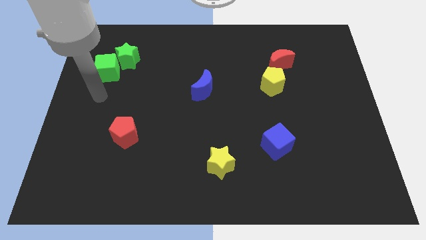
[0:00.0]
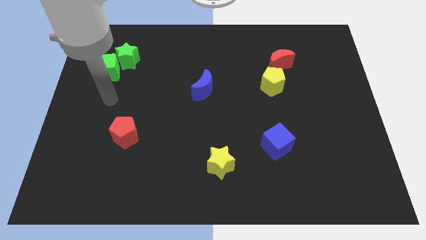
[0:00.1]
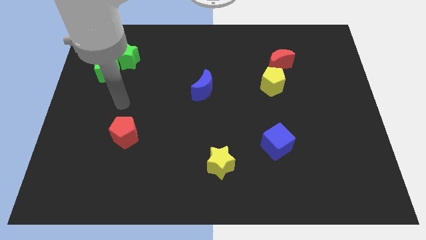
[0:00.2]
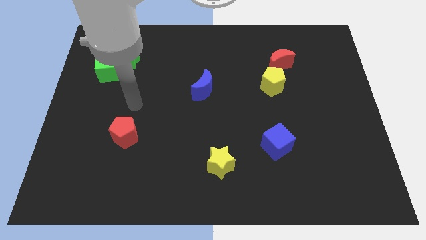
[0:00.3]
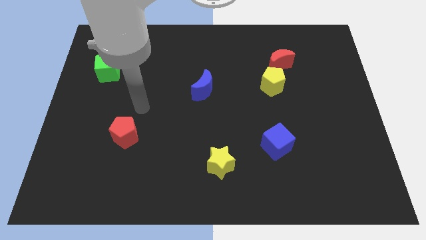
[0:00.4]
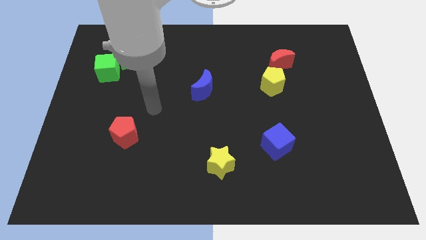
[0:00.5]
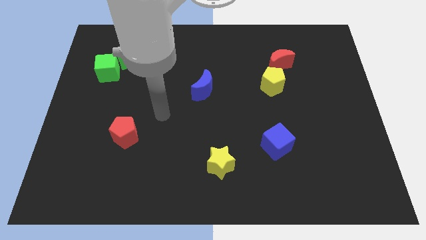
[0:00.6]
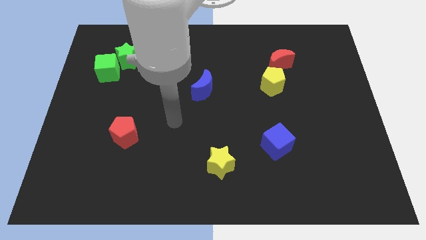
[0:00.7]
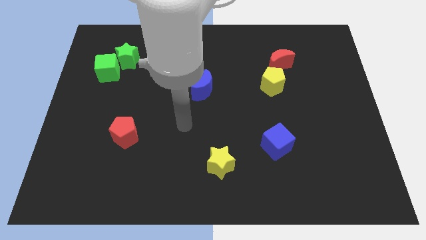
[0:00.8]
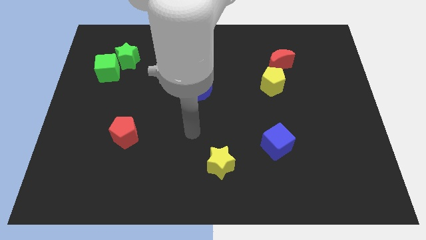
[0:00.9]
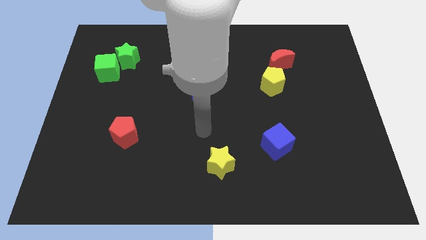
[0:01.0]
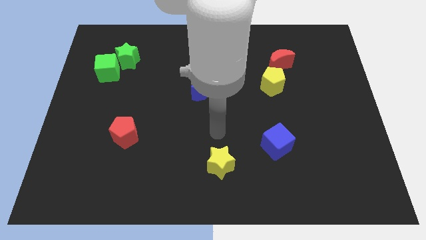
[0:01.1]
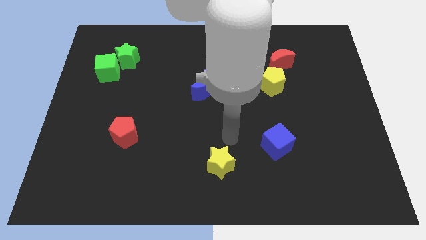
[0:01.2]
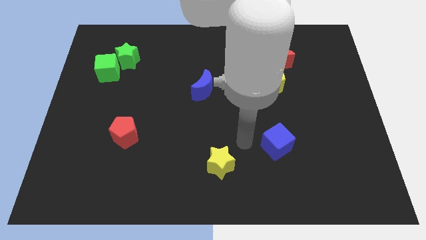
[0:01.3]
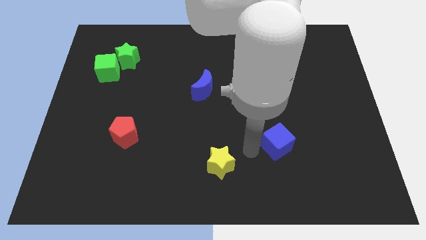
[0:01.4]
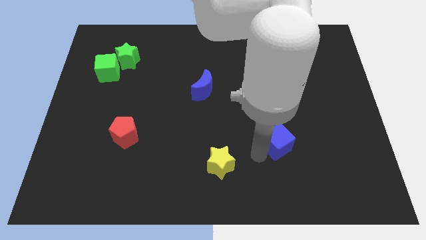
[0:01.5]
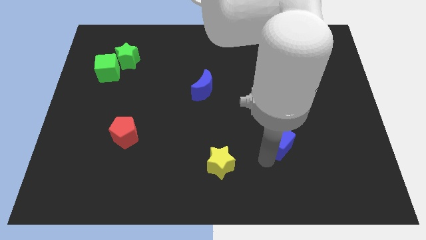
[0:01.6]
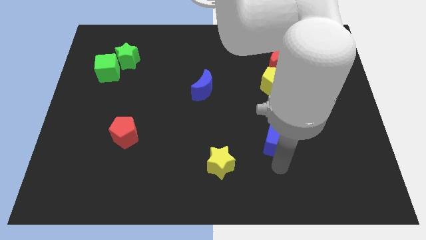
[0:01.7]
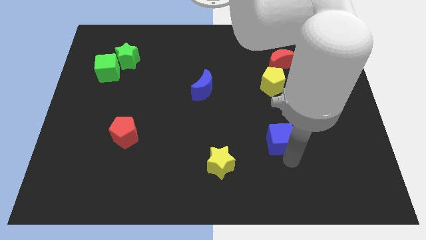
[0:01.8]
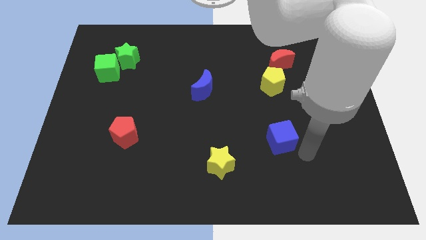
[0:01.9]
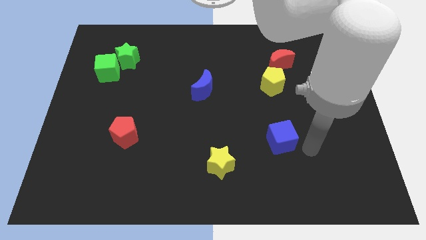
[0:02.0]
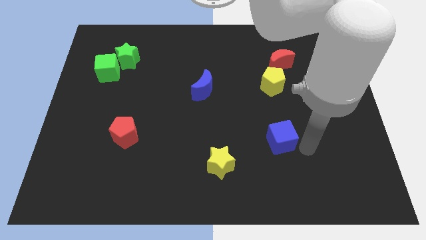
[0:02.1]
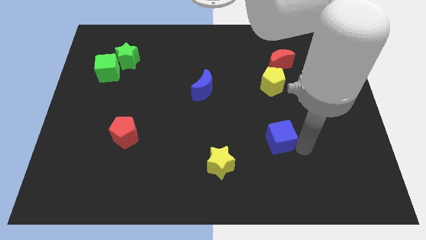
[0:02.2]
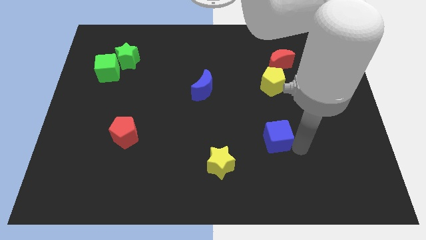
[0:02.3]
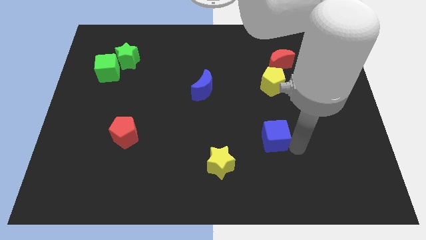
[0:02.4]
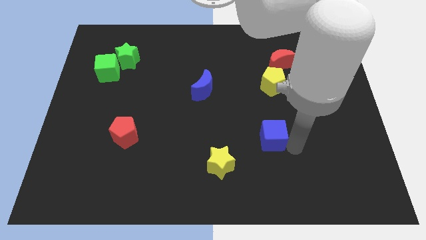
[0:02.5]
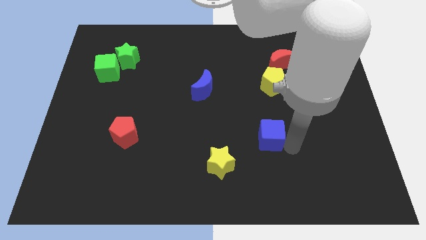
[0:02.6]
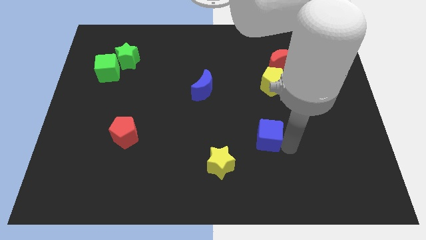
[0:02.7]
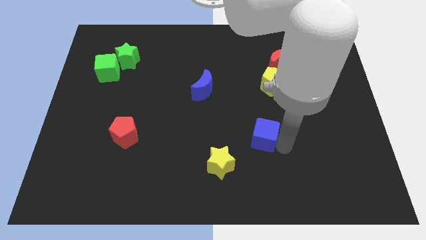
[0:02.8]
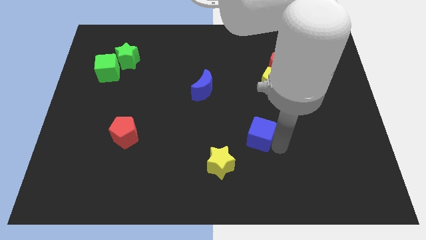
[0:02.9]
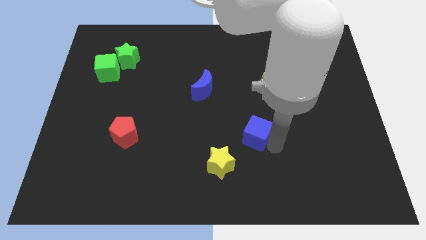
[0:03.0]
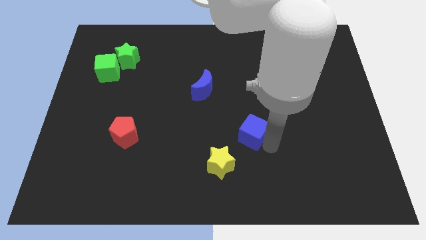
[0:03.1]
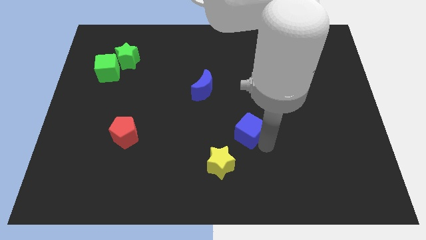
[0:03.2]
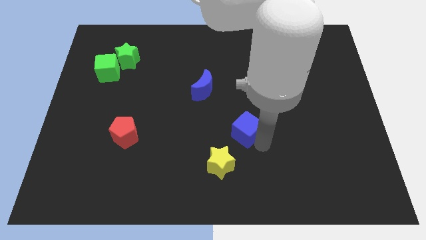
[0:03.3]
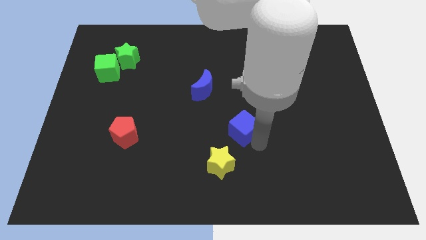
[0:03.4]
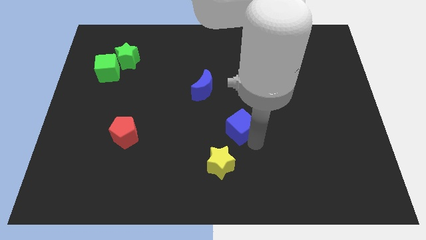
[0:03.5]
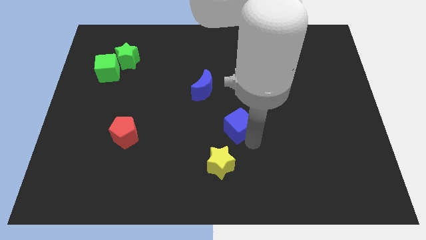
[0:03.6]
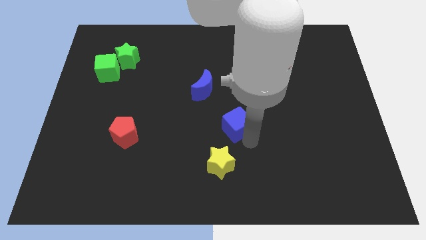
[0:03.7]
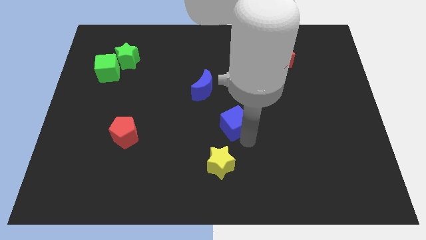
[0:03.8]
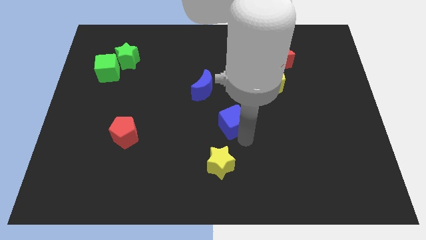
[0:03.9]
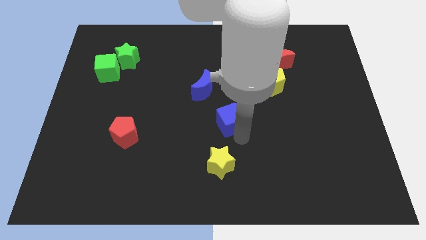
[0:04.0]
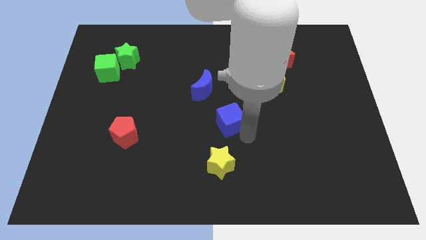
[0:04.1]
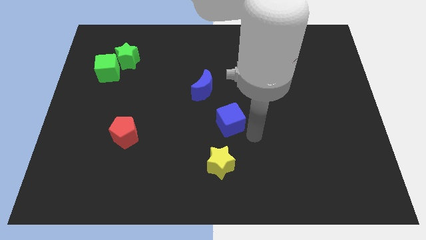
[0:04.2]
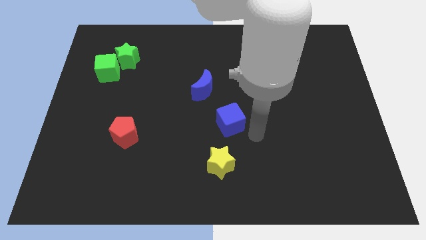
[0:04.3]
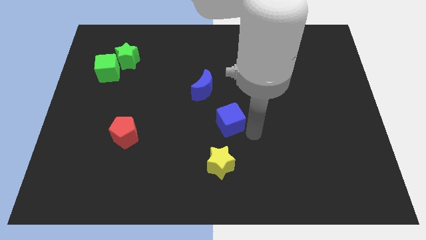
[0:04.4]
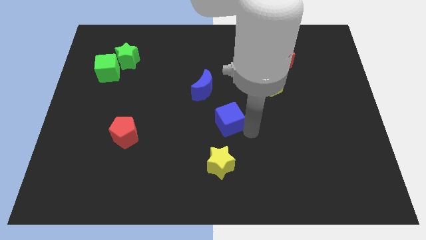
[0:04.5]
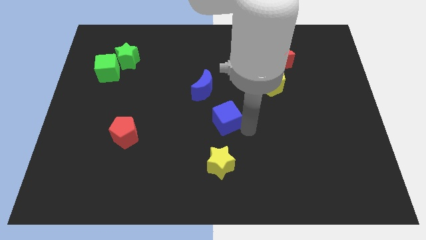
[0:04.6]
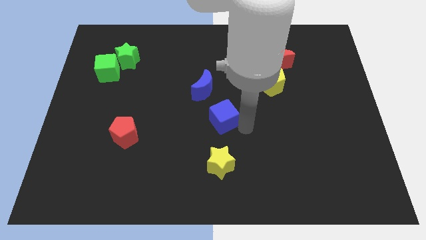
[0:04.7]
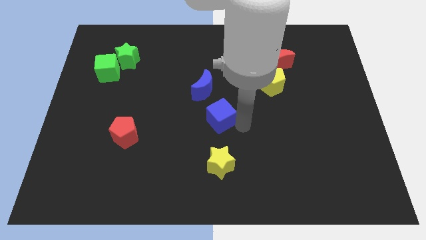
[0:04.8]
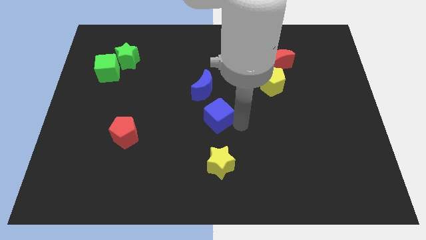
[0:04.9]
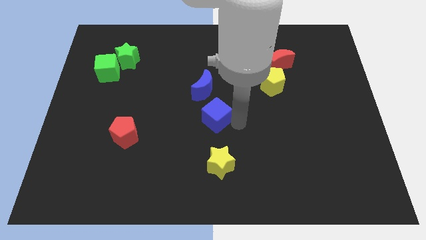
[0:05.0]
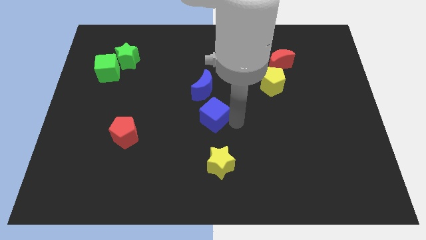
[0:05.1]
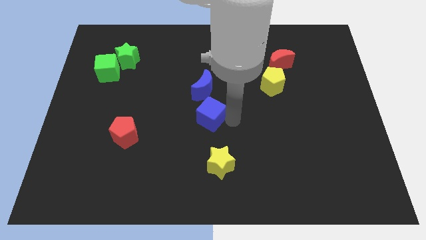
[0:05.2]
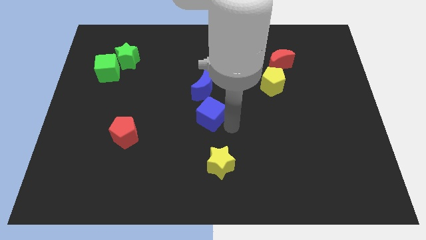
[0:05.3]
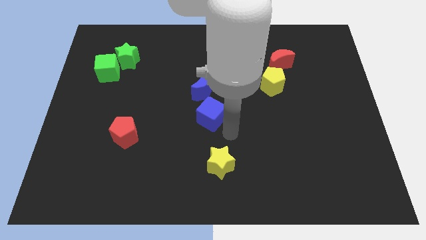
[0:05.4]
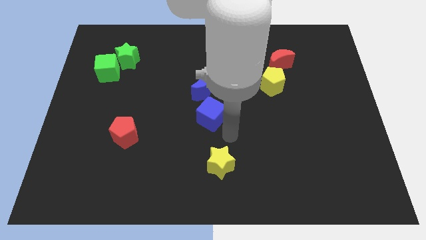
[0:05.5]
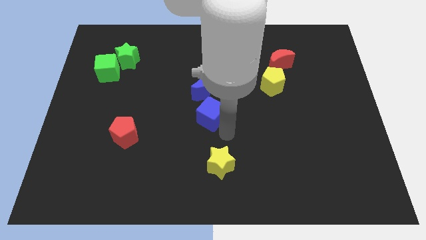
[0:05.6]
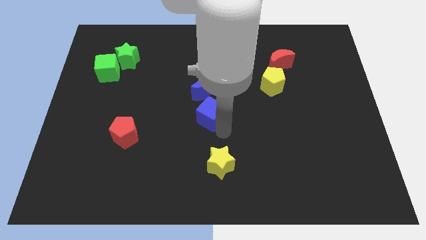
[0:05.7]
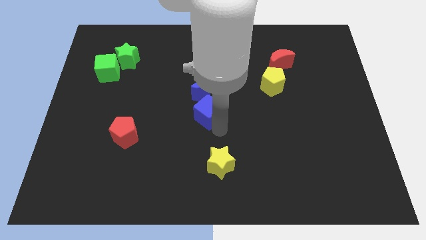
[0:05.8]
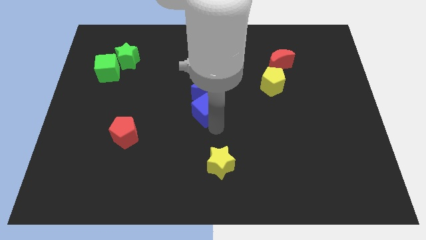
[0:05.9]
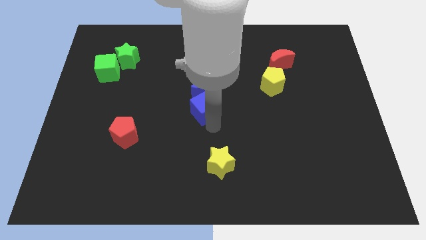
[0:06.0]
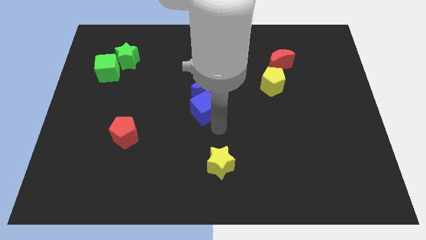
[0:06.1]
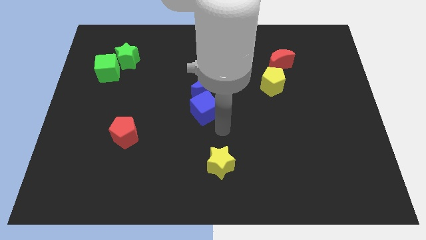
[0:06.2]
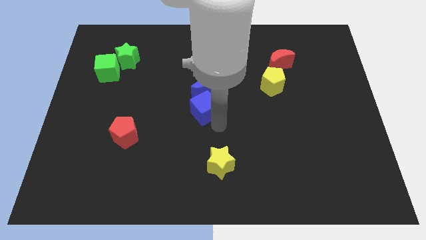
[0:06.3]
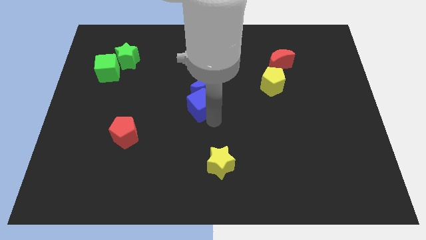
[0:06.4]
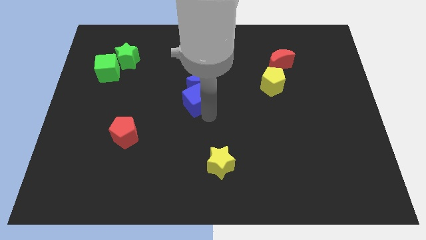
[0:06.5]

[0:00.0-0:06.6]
move the blue cube upwards and left diagonally

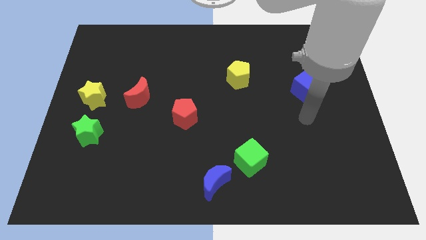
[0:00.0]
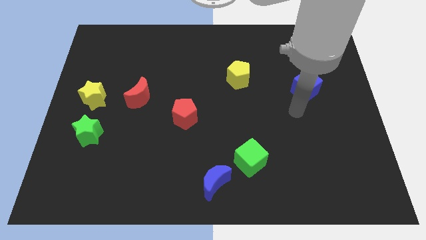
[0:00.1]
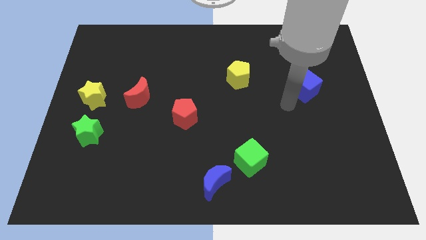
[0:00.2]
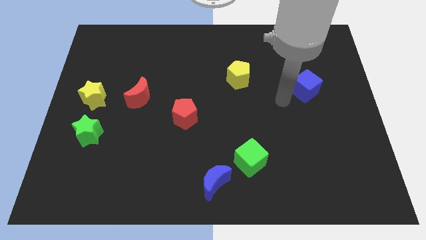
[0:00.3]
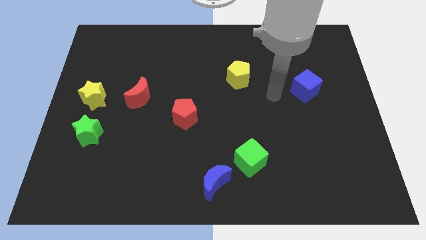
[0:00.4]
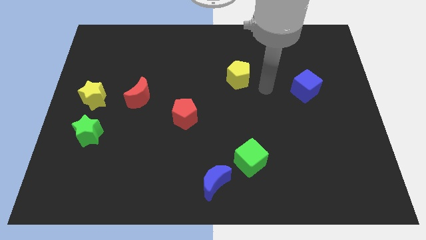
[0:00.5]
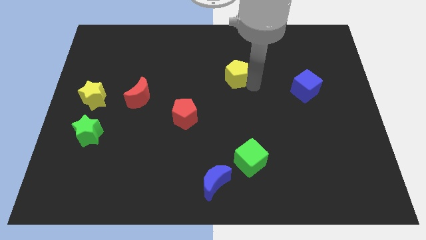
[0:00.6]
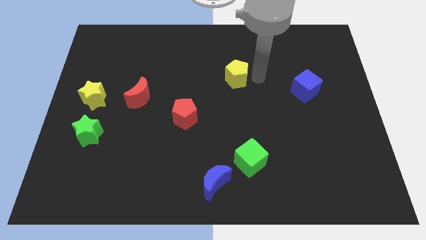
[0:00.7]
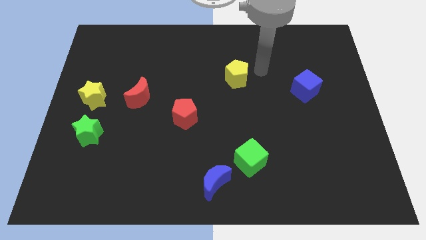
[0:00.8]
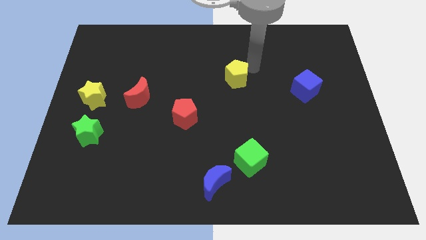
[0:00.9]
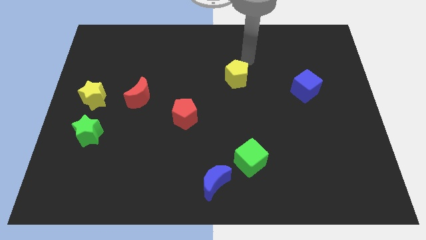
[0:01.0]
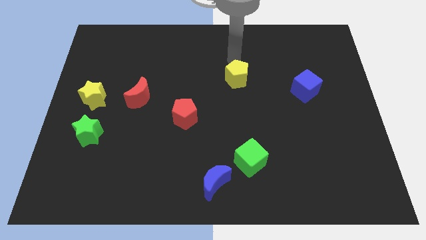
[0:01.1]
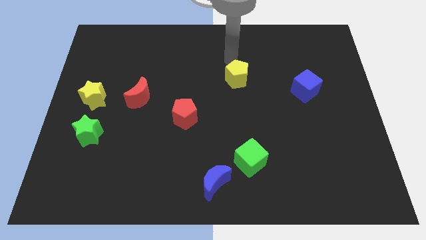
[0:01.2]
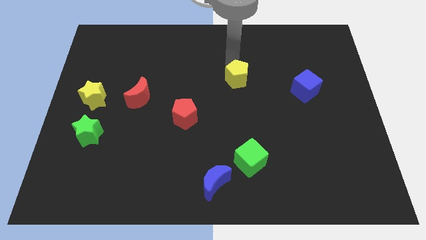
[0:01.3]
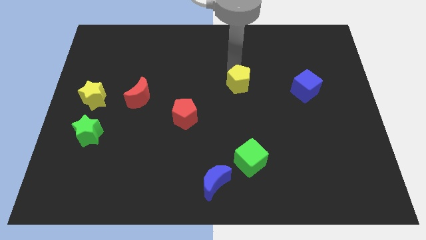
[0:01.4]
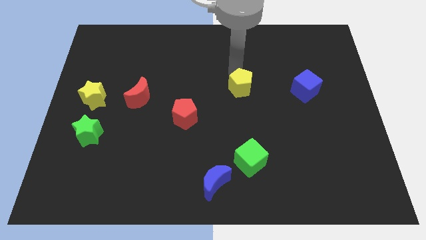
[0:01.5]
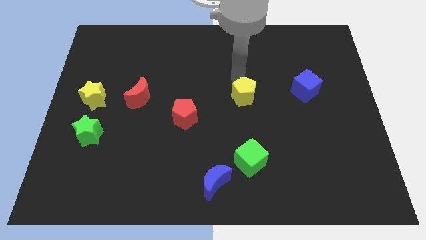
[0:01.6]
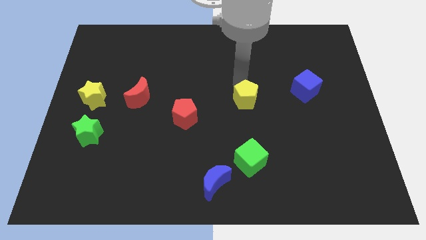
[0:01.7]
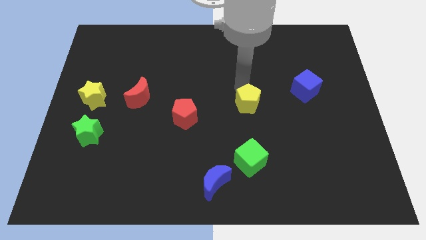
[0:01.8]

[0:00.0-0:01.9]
slightly move the yellow pentagon down
